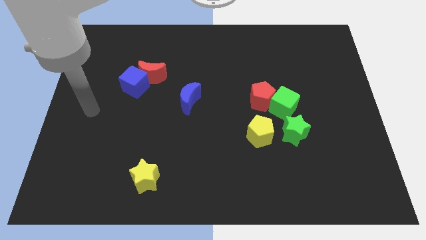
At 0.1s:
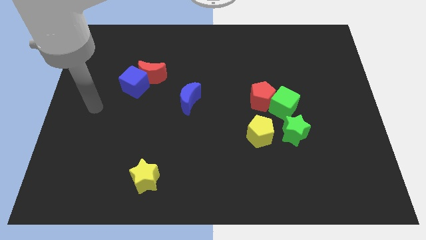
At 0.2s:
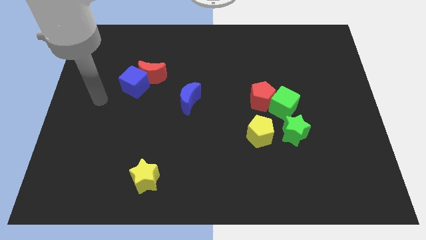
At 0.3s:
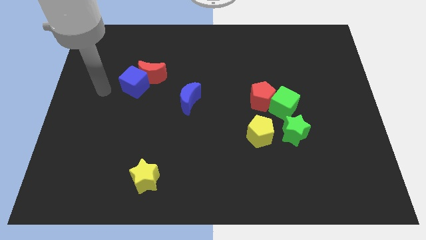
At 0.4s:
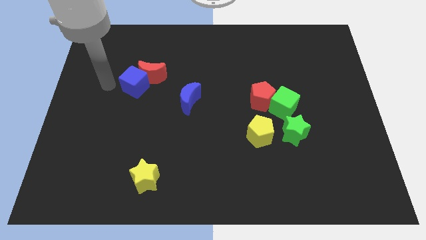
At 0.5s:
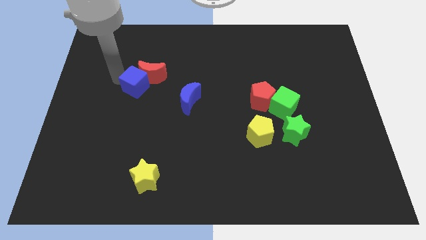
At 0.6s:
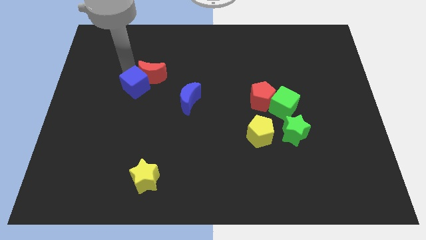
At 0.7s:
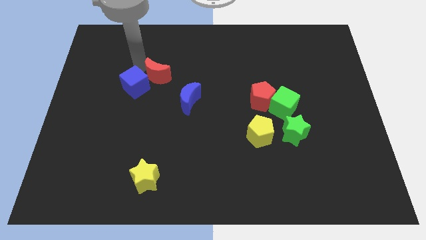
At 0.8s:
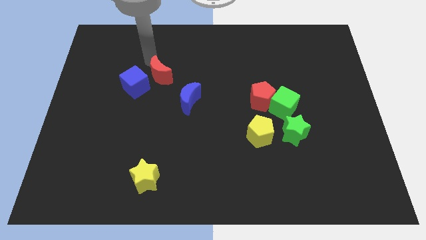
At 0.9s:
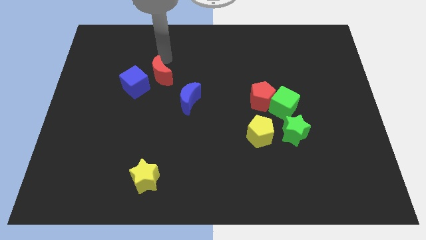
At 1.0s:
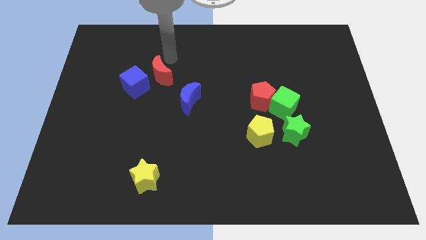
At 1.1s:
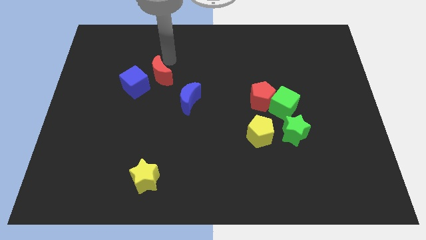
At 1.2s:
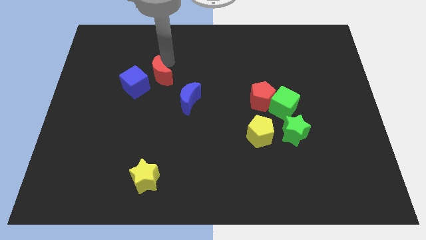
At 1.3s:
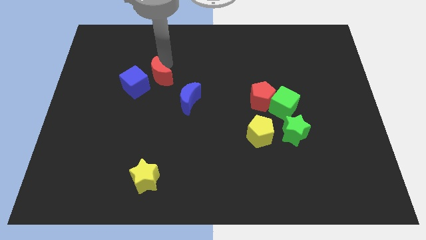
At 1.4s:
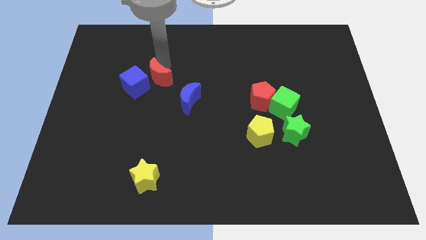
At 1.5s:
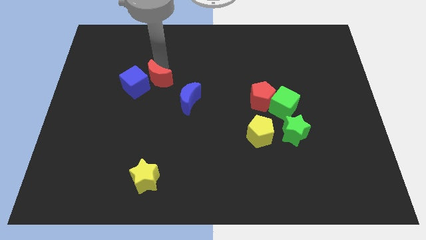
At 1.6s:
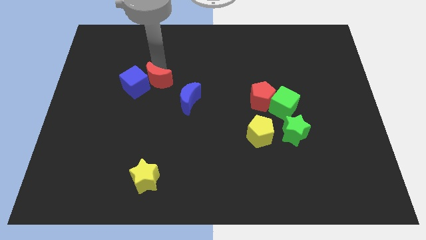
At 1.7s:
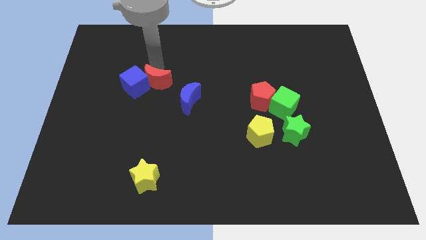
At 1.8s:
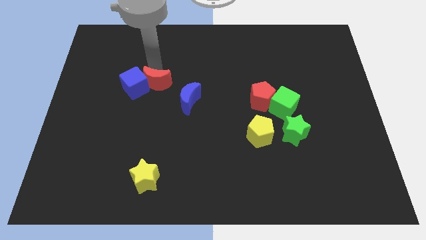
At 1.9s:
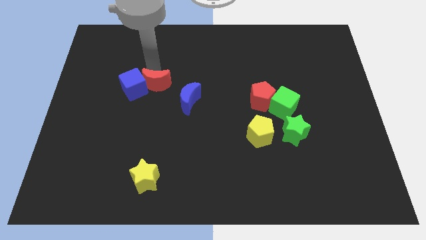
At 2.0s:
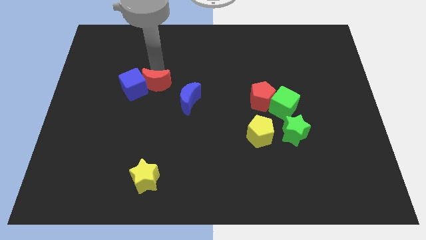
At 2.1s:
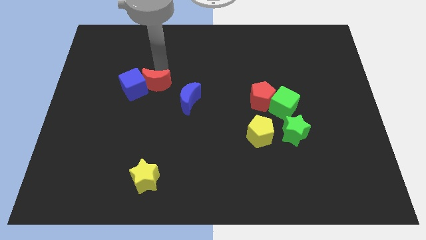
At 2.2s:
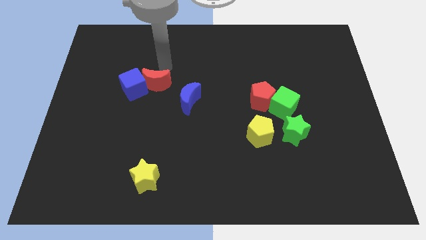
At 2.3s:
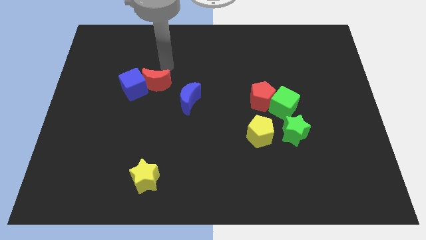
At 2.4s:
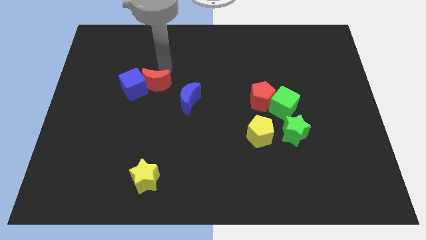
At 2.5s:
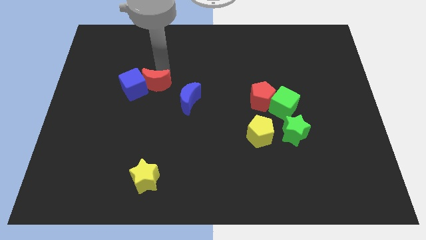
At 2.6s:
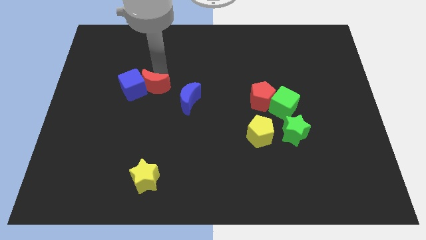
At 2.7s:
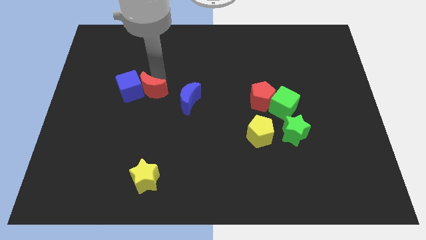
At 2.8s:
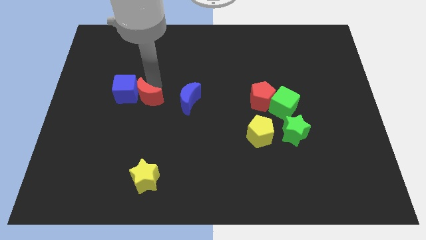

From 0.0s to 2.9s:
move the red moon somewhat down

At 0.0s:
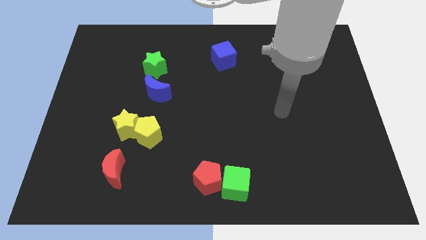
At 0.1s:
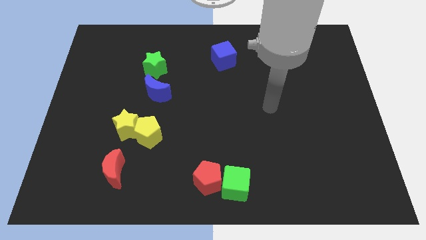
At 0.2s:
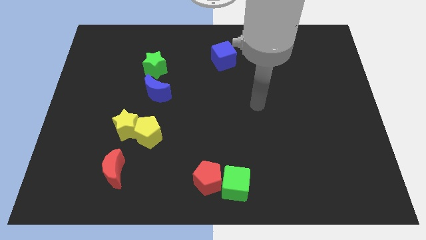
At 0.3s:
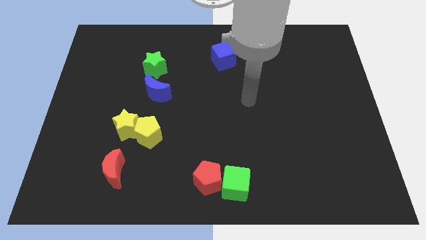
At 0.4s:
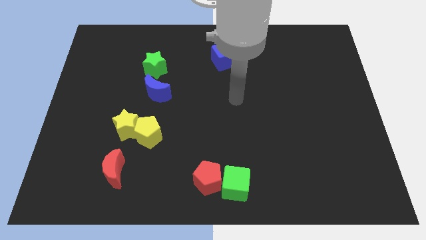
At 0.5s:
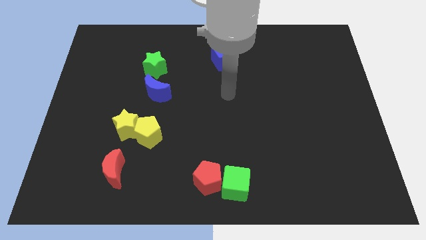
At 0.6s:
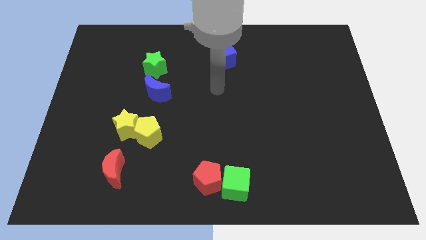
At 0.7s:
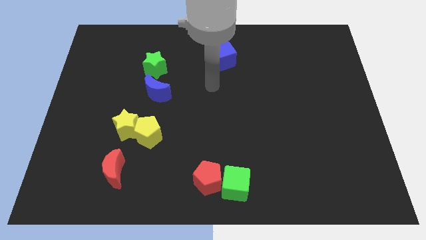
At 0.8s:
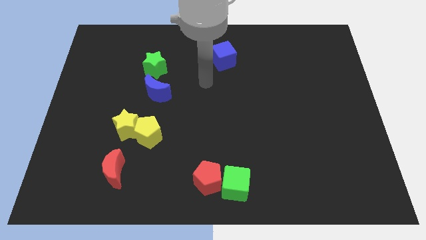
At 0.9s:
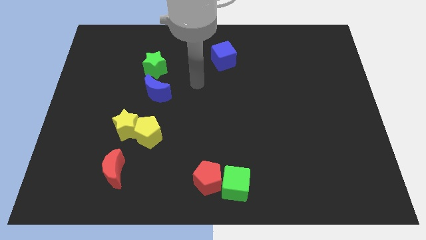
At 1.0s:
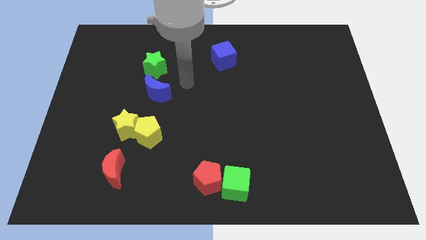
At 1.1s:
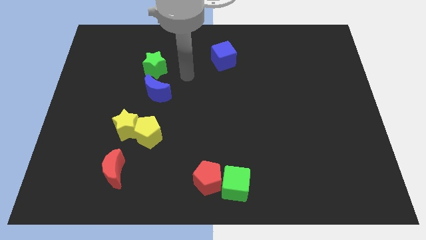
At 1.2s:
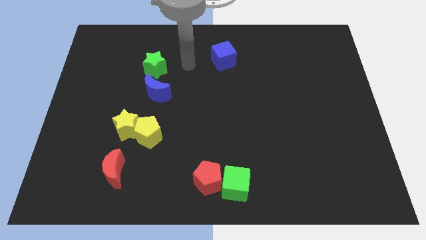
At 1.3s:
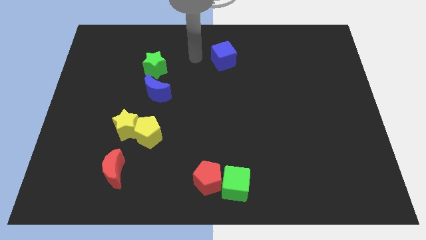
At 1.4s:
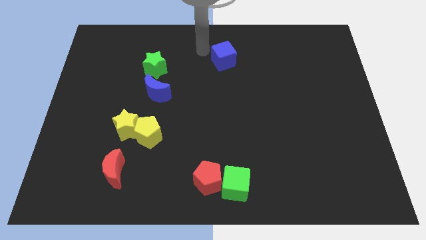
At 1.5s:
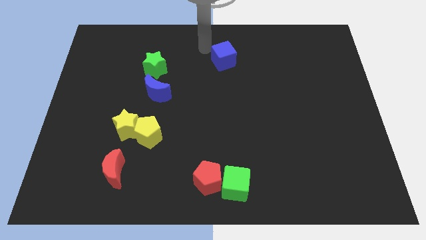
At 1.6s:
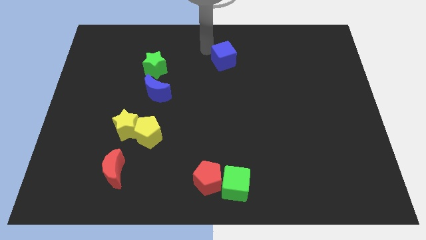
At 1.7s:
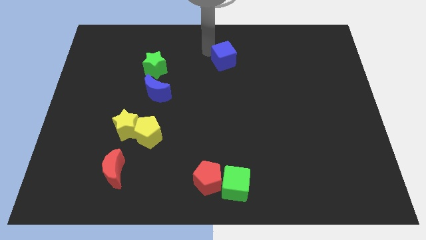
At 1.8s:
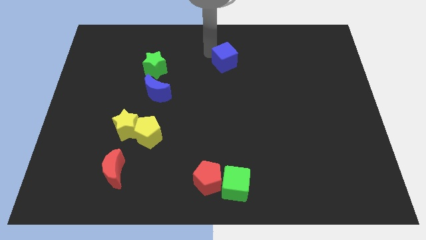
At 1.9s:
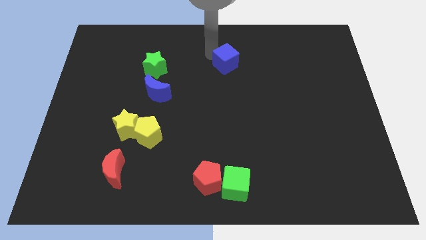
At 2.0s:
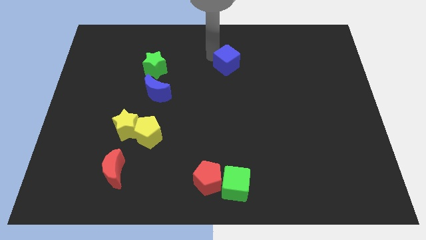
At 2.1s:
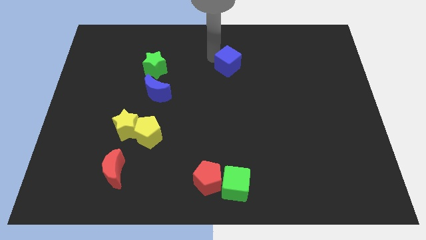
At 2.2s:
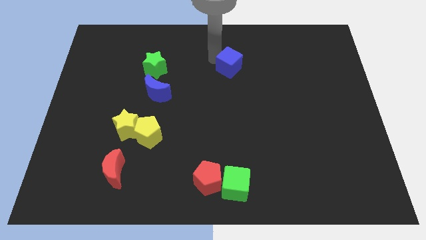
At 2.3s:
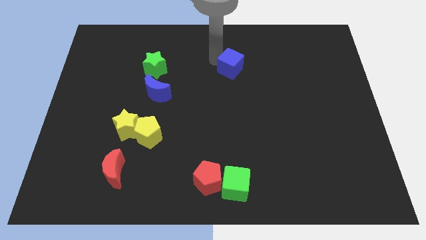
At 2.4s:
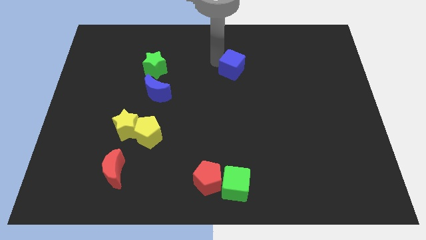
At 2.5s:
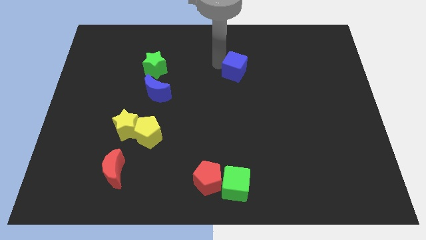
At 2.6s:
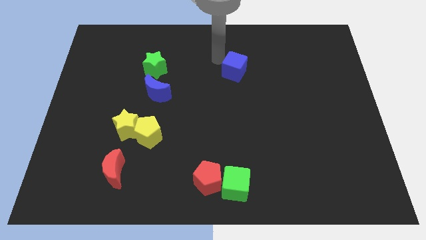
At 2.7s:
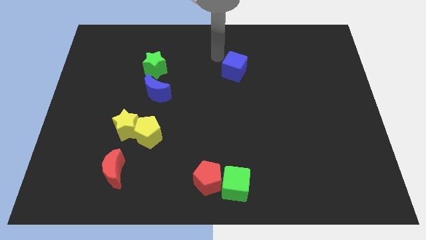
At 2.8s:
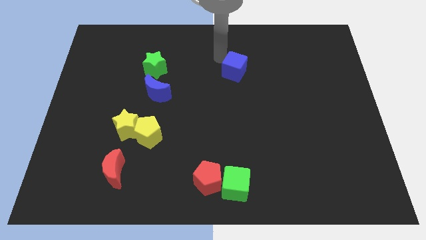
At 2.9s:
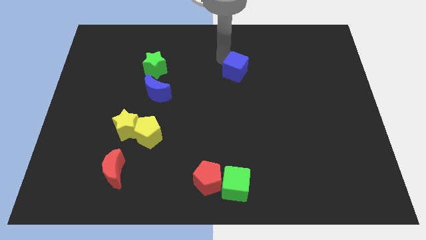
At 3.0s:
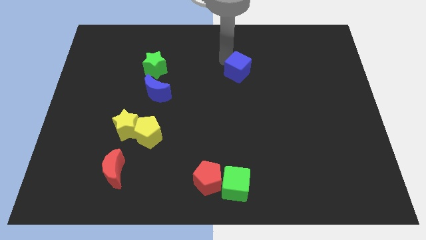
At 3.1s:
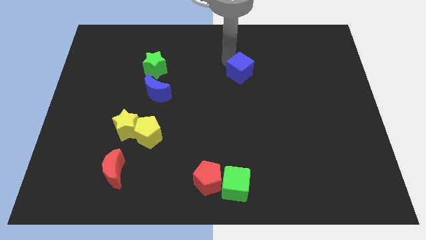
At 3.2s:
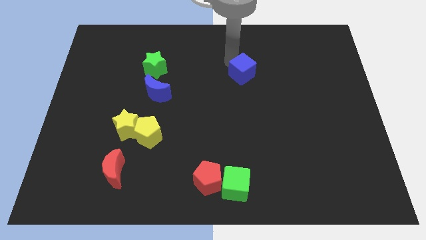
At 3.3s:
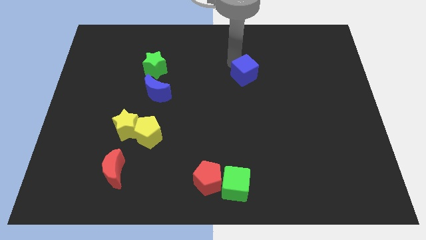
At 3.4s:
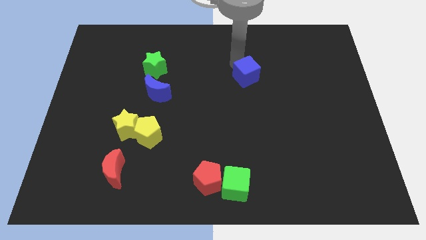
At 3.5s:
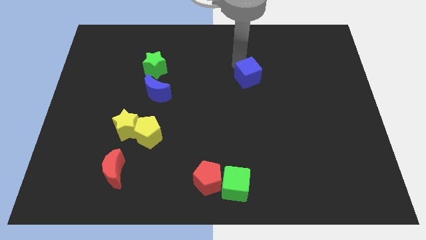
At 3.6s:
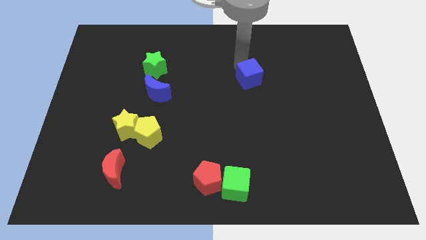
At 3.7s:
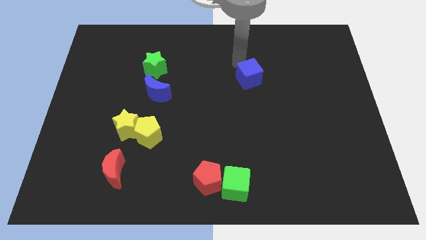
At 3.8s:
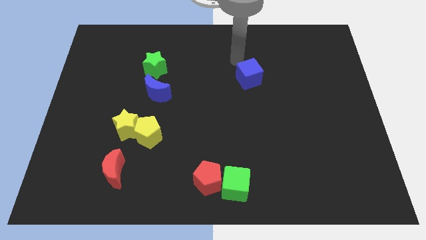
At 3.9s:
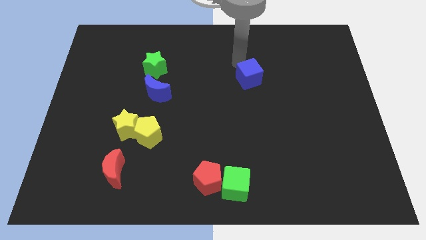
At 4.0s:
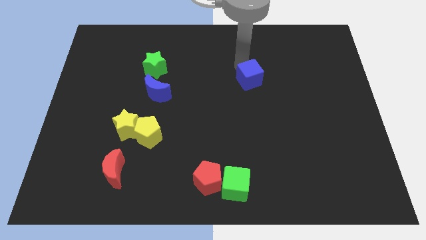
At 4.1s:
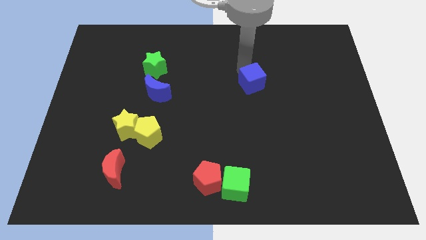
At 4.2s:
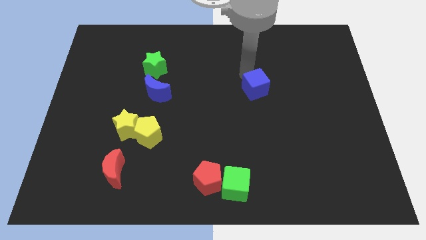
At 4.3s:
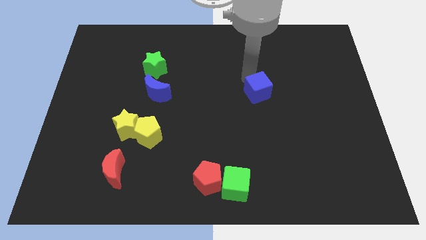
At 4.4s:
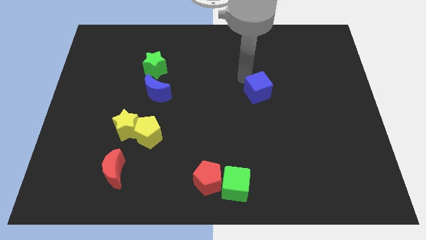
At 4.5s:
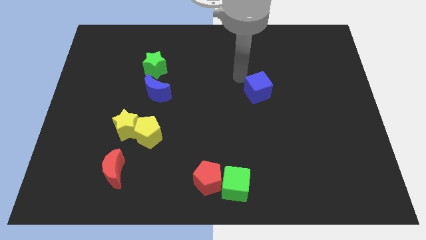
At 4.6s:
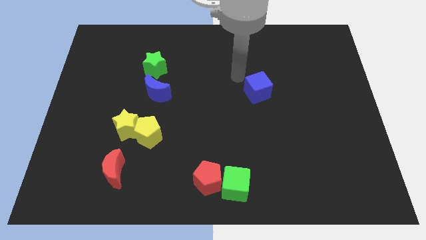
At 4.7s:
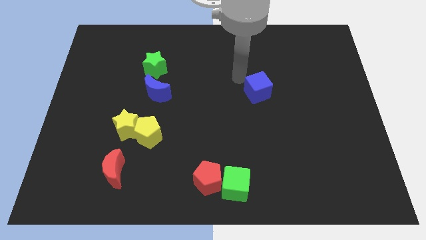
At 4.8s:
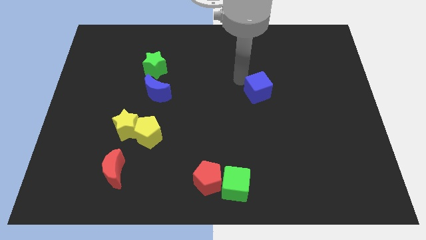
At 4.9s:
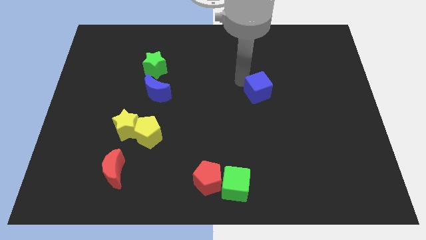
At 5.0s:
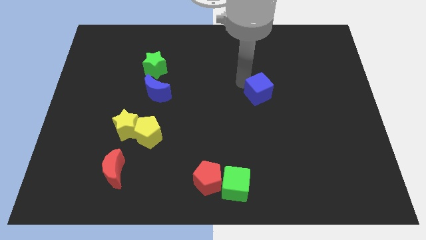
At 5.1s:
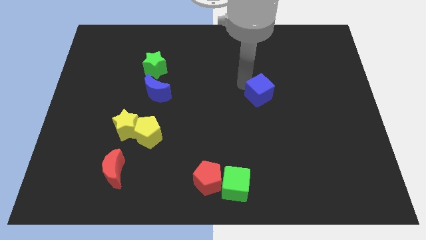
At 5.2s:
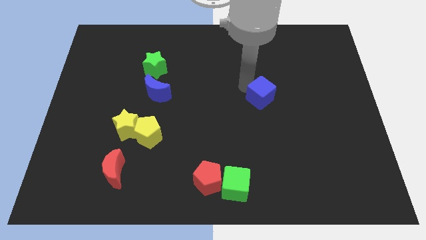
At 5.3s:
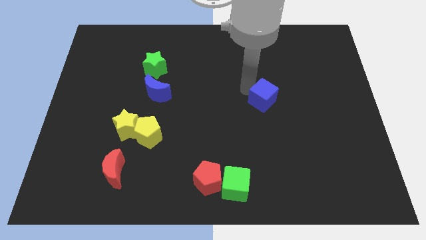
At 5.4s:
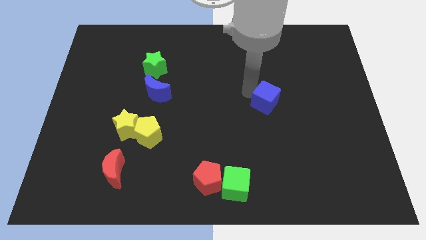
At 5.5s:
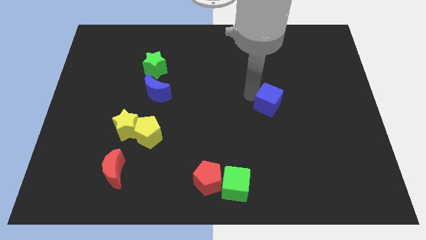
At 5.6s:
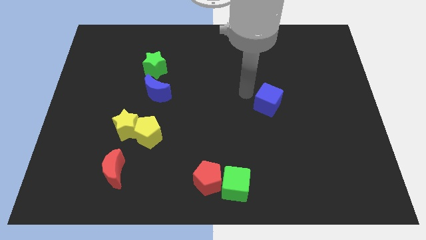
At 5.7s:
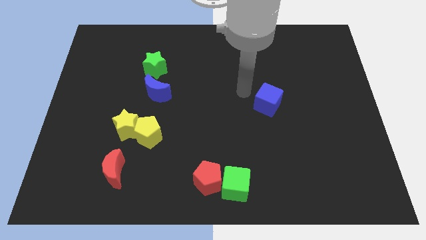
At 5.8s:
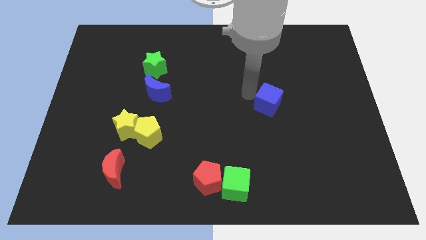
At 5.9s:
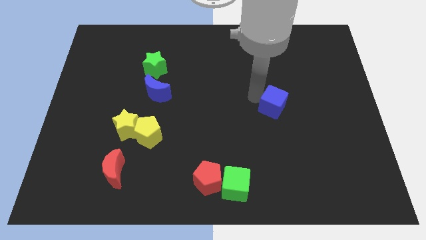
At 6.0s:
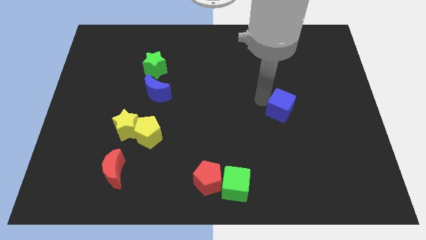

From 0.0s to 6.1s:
move the blue cube diagonally down and right
